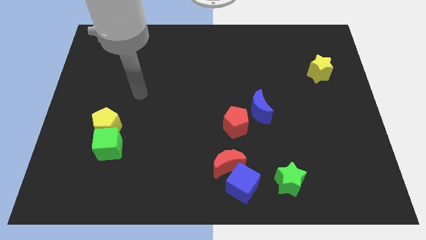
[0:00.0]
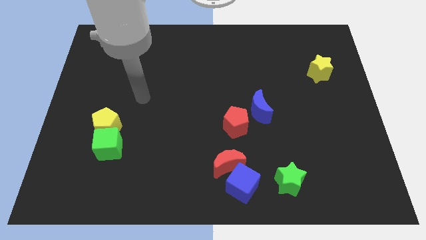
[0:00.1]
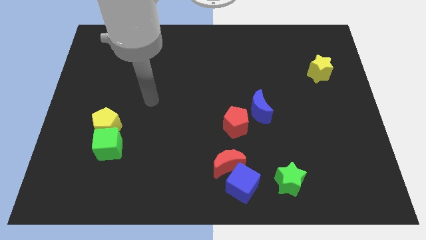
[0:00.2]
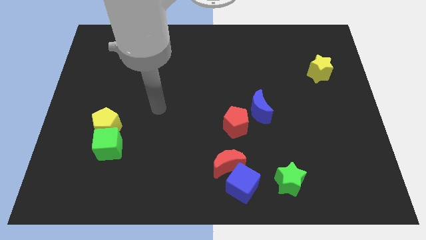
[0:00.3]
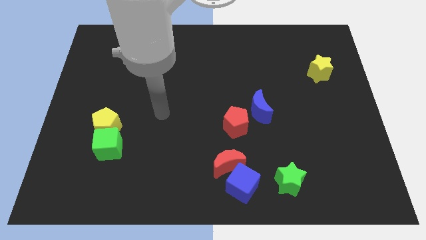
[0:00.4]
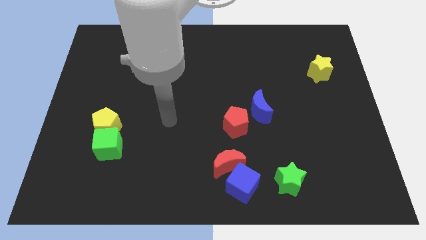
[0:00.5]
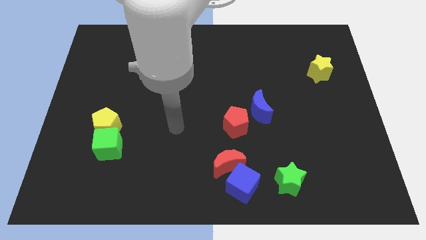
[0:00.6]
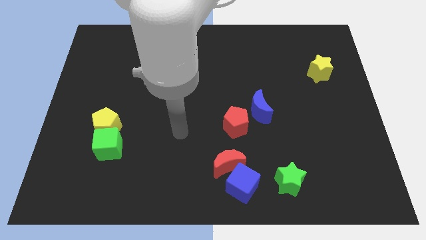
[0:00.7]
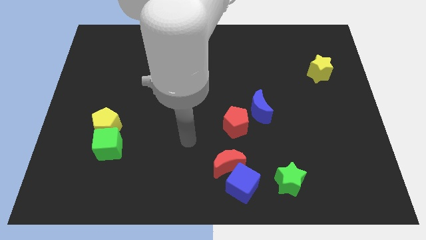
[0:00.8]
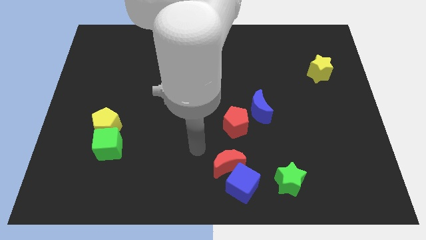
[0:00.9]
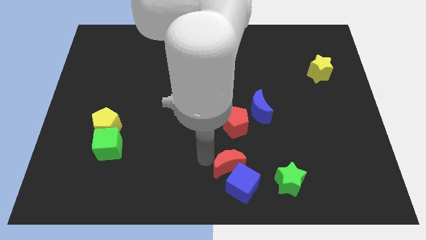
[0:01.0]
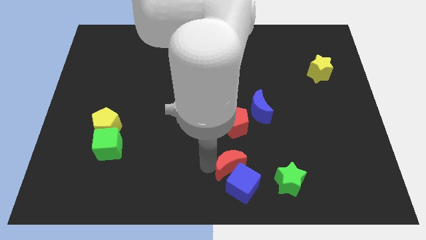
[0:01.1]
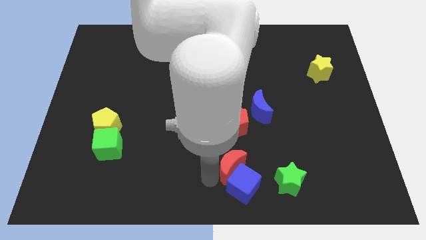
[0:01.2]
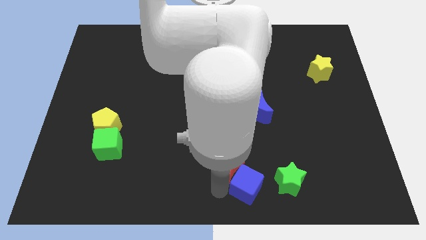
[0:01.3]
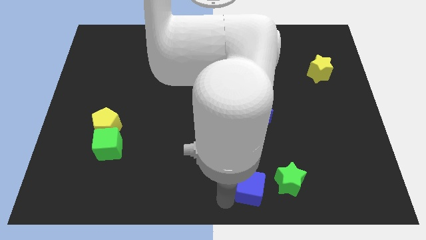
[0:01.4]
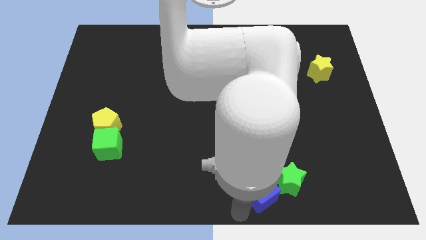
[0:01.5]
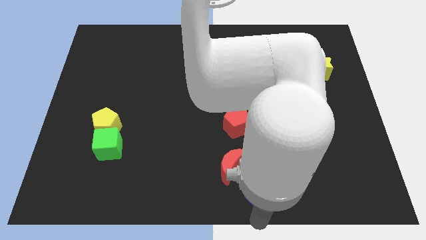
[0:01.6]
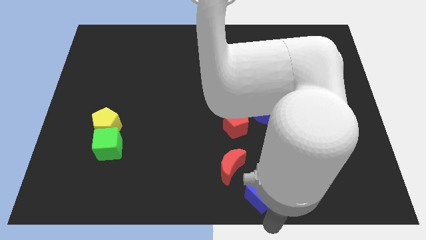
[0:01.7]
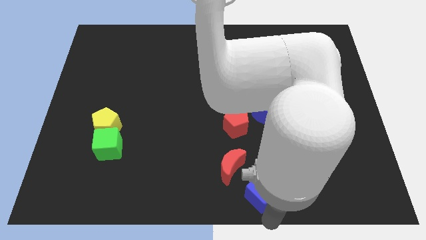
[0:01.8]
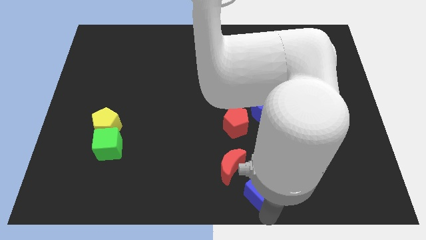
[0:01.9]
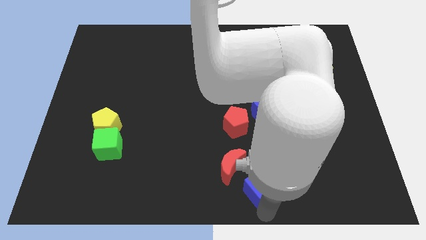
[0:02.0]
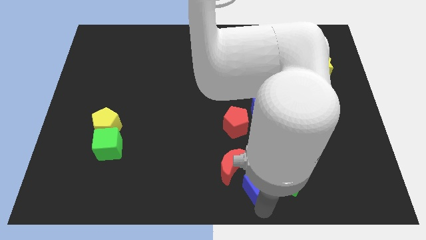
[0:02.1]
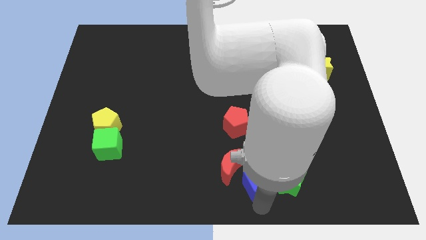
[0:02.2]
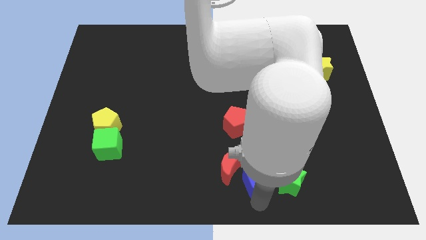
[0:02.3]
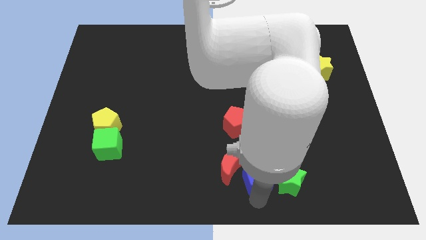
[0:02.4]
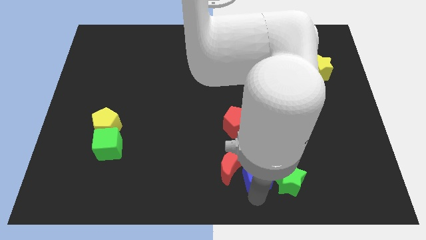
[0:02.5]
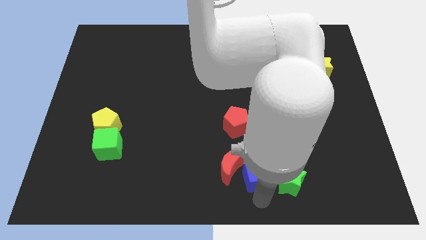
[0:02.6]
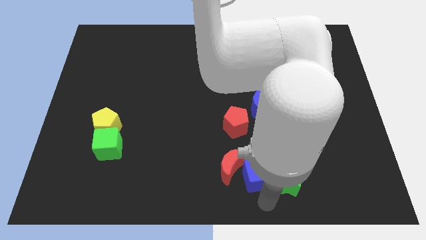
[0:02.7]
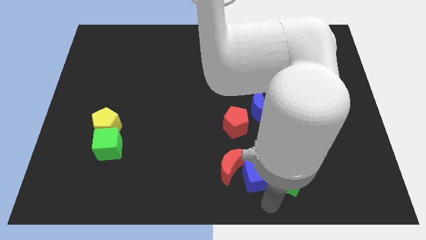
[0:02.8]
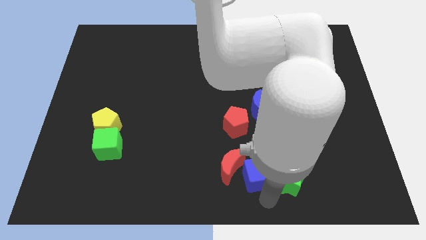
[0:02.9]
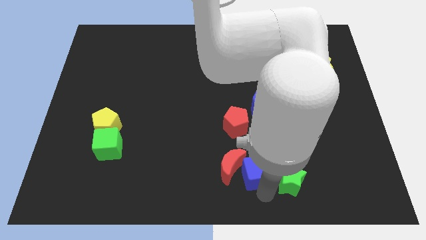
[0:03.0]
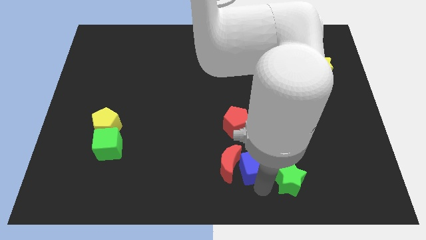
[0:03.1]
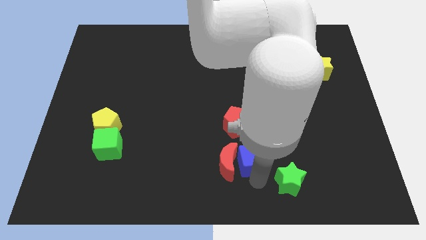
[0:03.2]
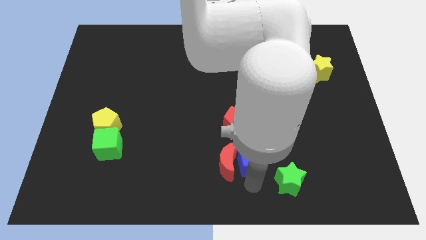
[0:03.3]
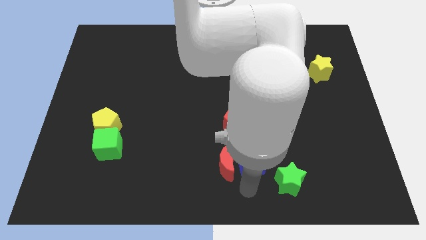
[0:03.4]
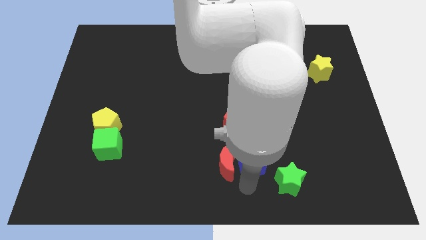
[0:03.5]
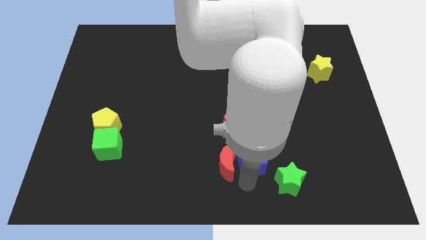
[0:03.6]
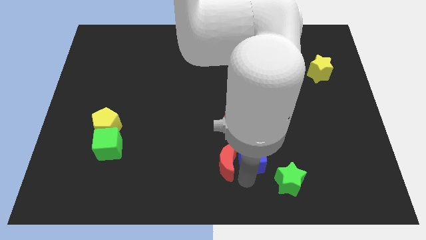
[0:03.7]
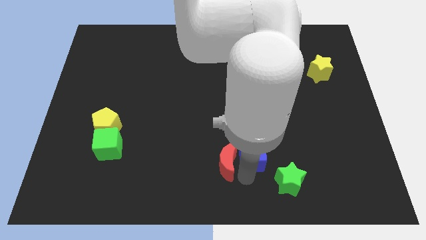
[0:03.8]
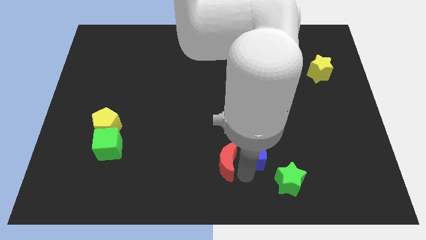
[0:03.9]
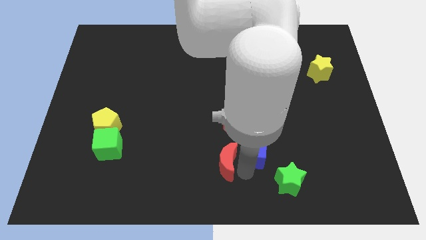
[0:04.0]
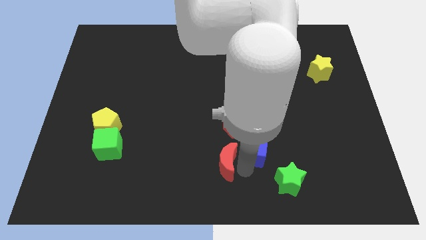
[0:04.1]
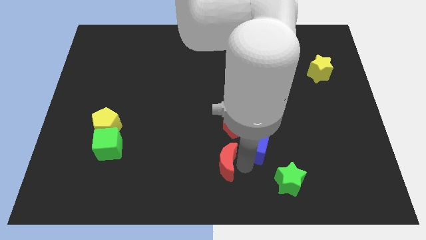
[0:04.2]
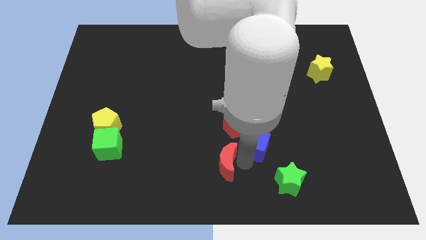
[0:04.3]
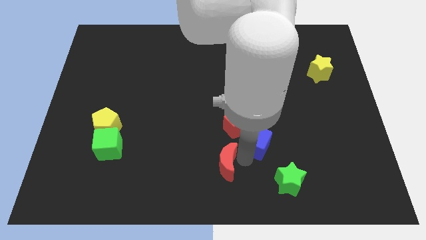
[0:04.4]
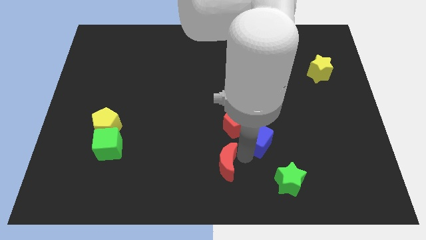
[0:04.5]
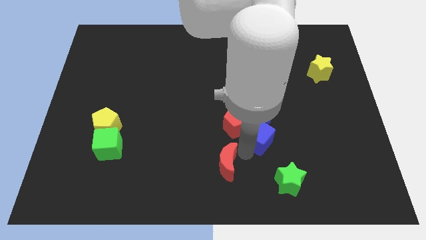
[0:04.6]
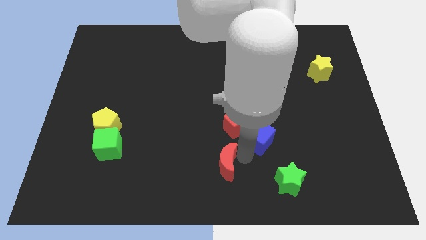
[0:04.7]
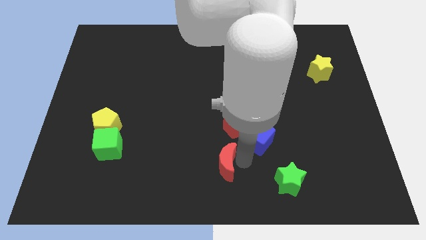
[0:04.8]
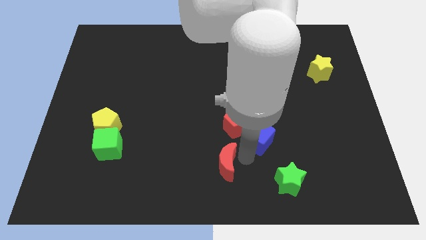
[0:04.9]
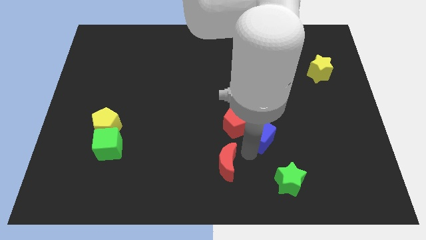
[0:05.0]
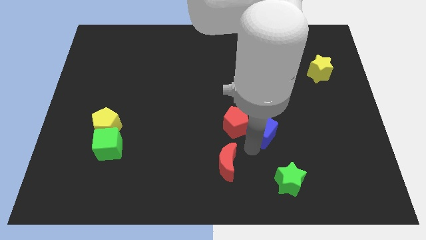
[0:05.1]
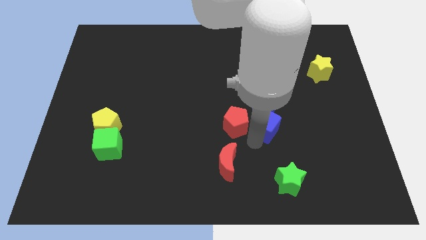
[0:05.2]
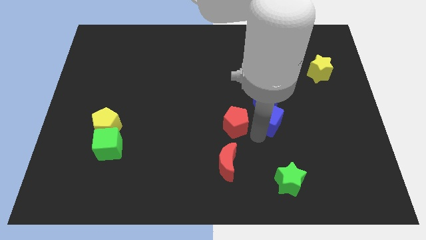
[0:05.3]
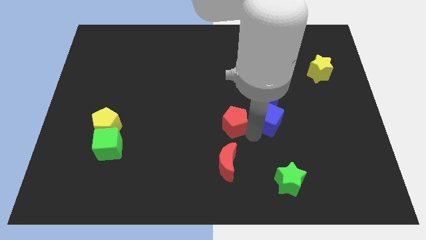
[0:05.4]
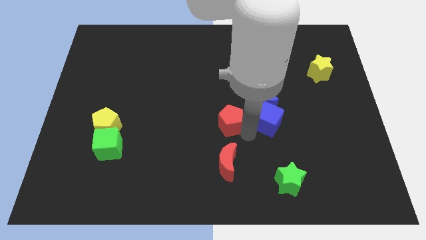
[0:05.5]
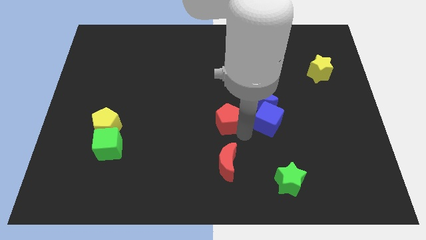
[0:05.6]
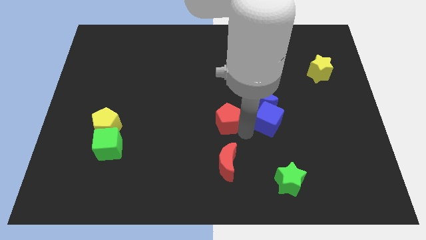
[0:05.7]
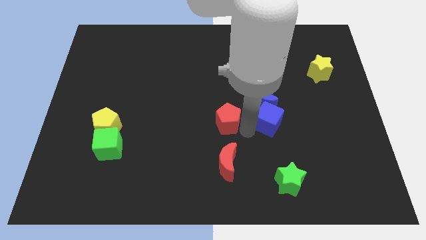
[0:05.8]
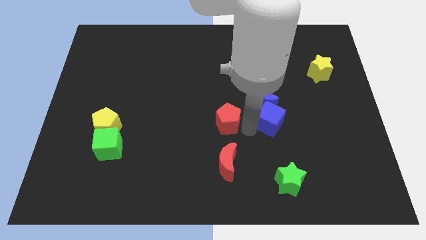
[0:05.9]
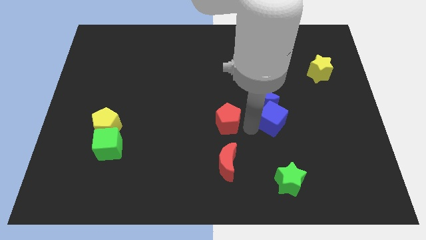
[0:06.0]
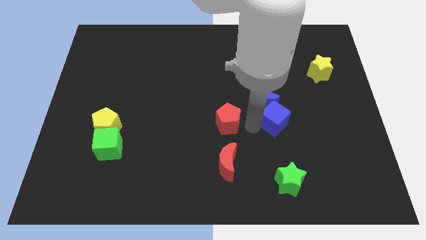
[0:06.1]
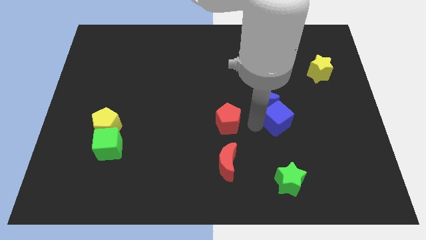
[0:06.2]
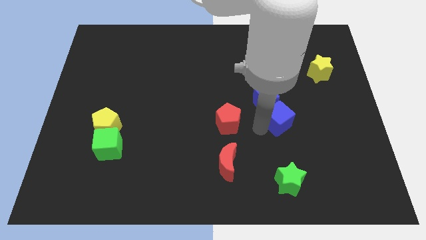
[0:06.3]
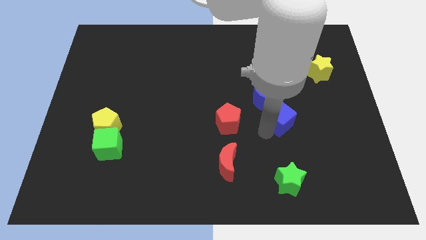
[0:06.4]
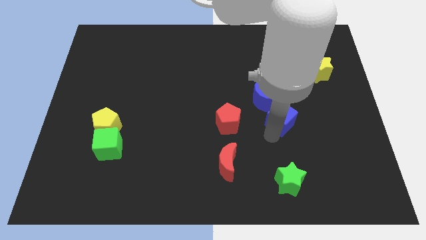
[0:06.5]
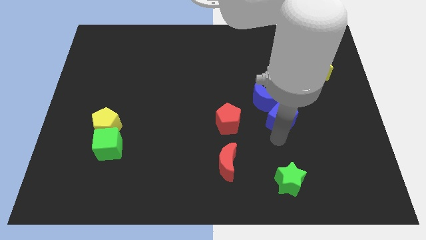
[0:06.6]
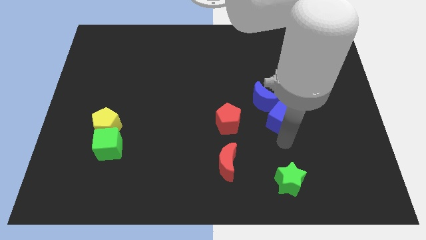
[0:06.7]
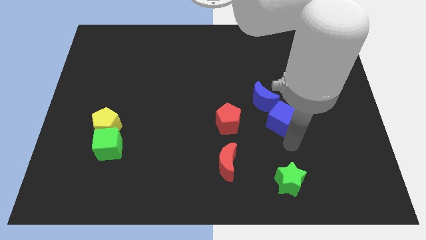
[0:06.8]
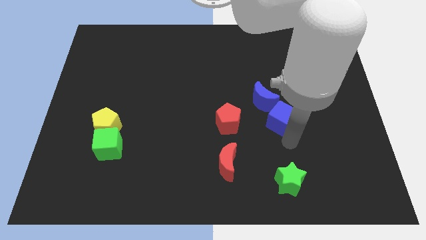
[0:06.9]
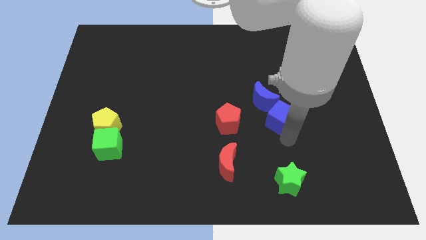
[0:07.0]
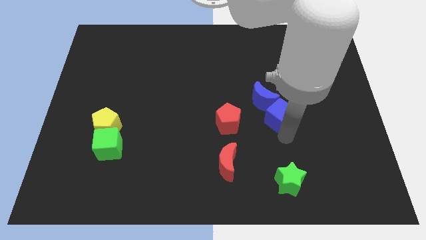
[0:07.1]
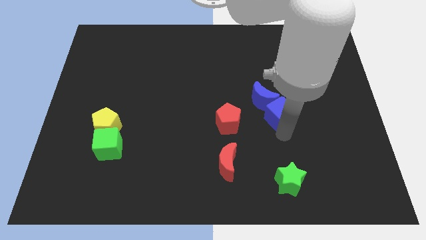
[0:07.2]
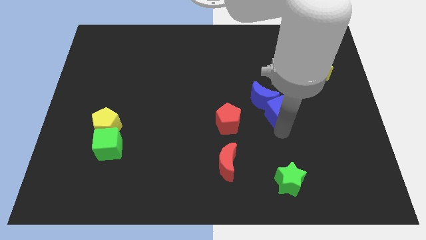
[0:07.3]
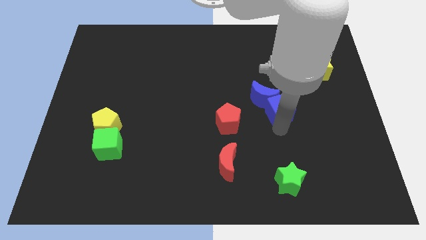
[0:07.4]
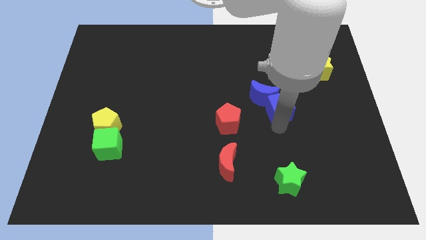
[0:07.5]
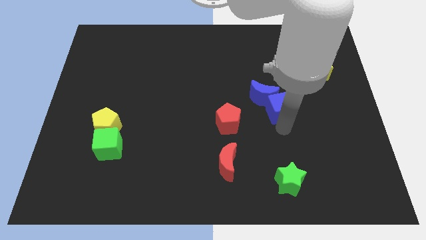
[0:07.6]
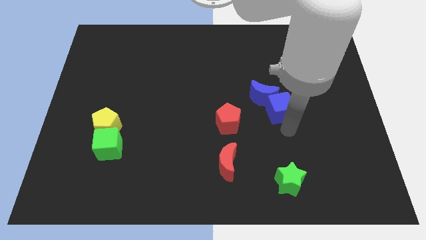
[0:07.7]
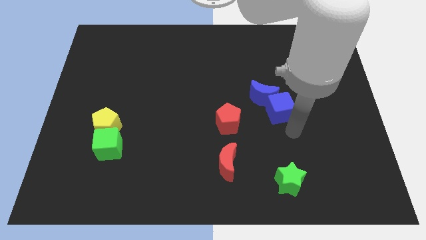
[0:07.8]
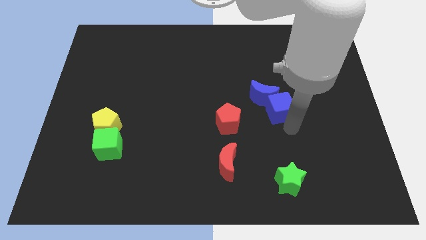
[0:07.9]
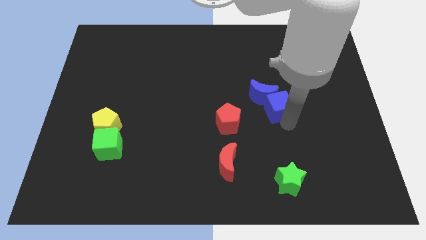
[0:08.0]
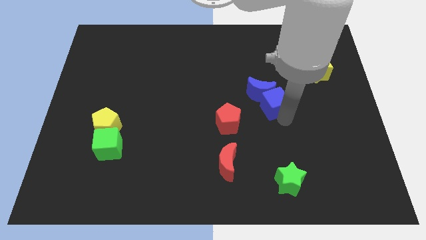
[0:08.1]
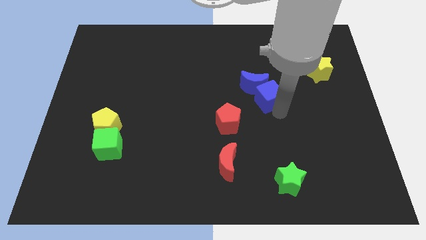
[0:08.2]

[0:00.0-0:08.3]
move the blue cube upwards
